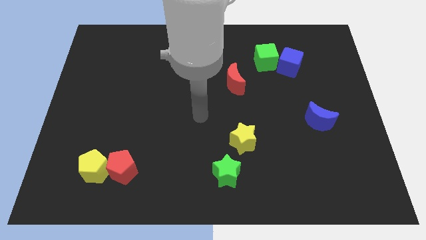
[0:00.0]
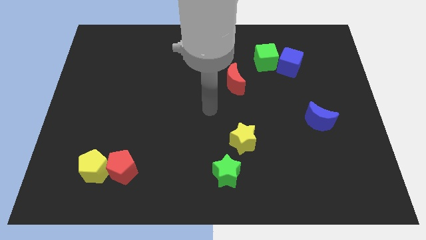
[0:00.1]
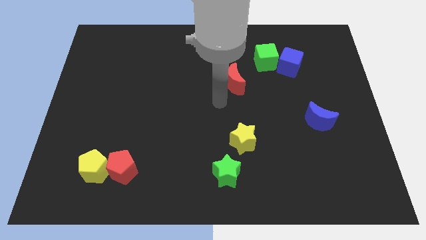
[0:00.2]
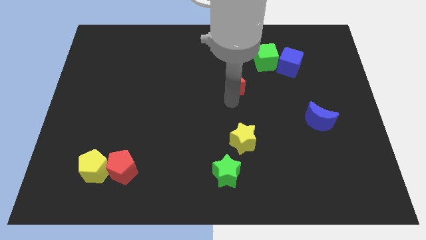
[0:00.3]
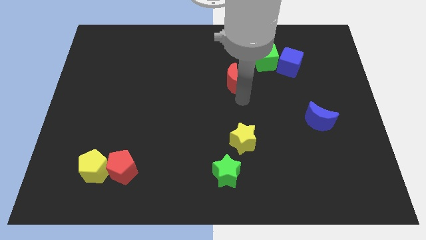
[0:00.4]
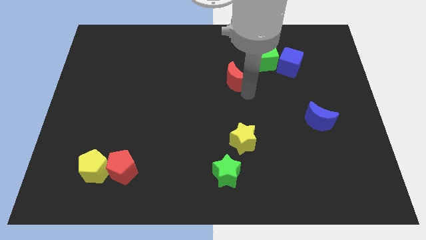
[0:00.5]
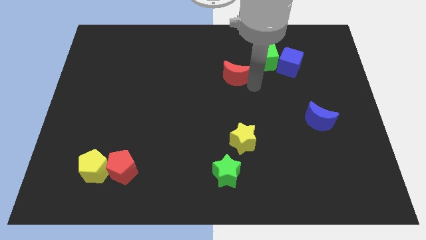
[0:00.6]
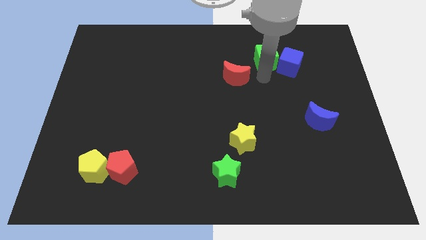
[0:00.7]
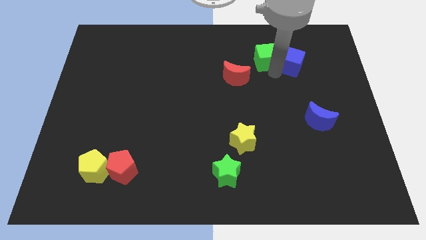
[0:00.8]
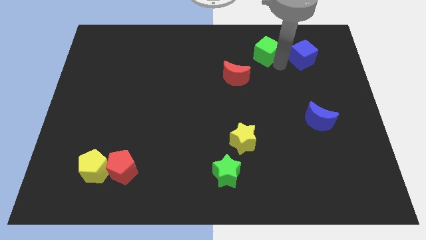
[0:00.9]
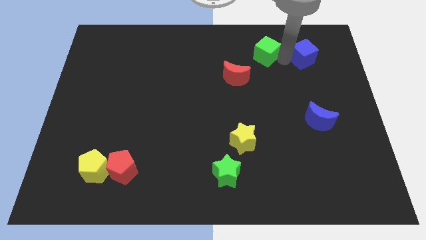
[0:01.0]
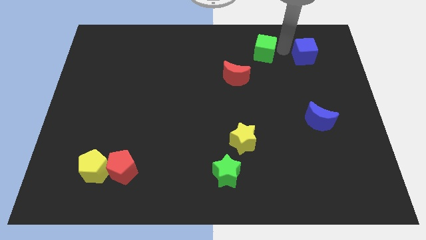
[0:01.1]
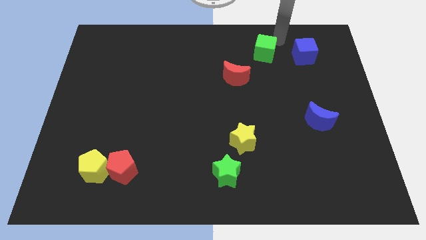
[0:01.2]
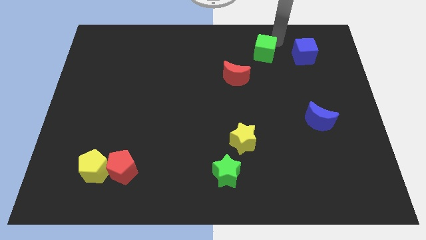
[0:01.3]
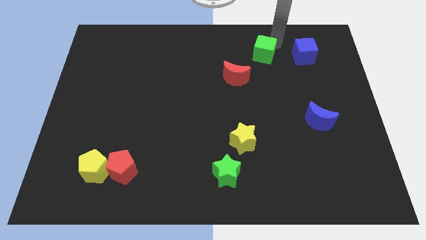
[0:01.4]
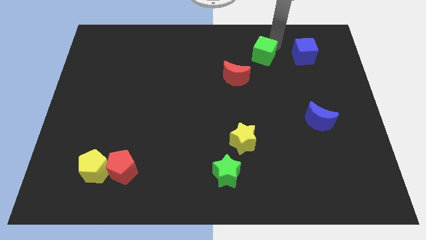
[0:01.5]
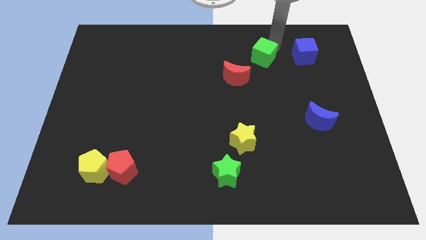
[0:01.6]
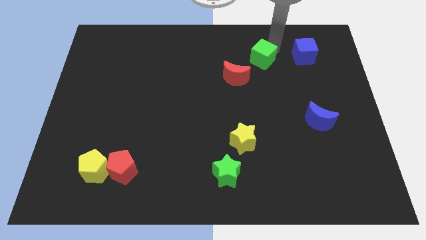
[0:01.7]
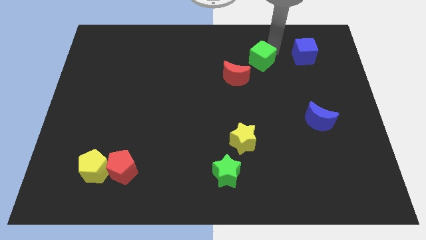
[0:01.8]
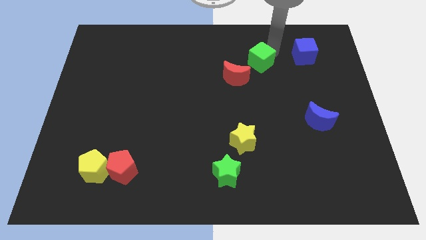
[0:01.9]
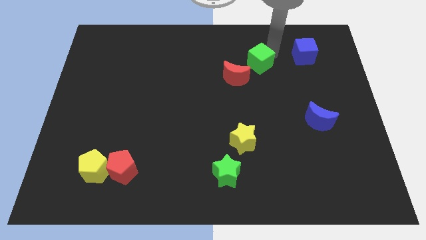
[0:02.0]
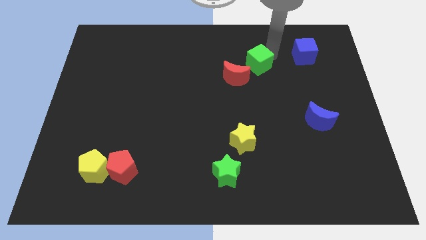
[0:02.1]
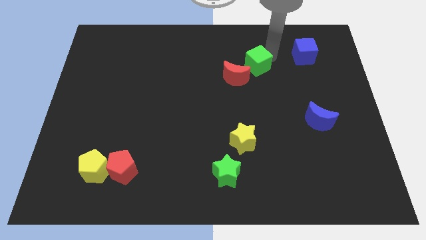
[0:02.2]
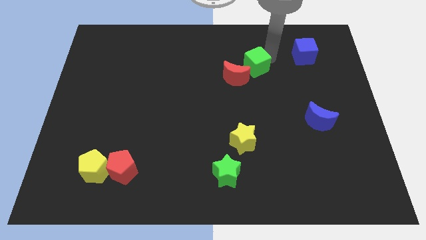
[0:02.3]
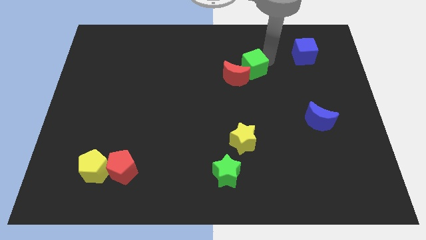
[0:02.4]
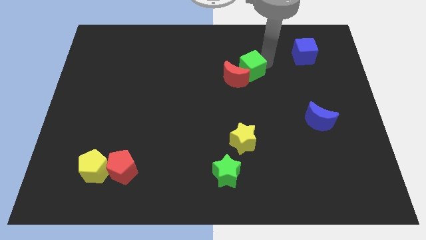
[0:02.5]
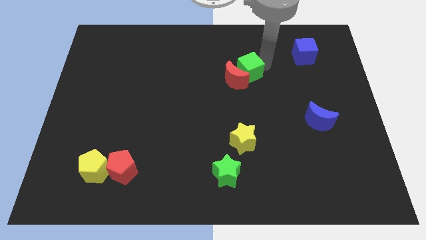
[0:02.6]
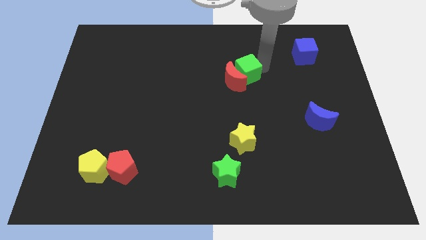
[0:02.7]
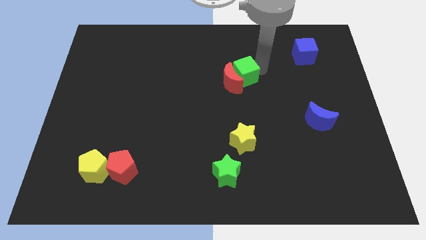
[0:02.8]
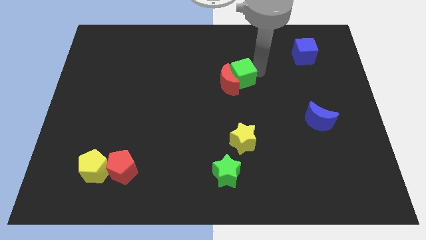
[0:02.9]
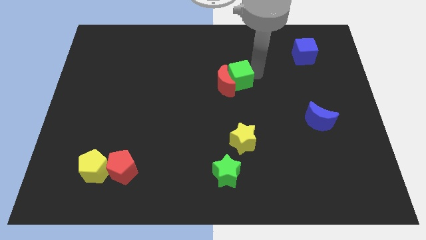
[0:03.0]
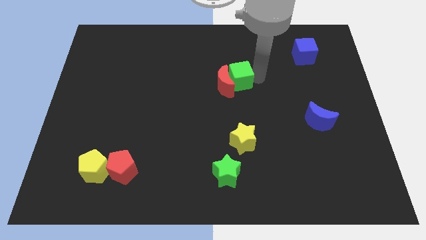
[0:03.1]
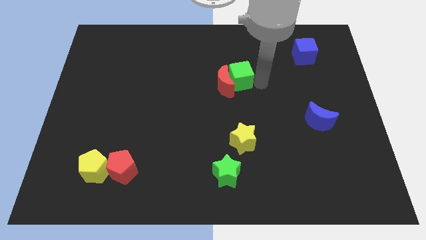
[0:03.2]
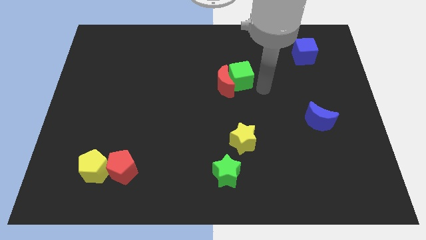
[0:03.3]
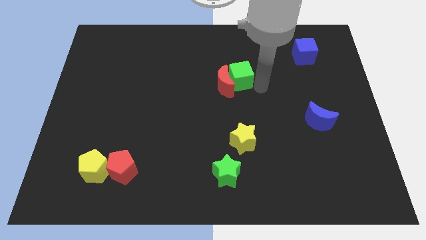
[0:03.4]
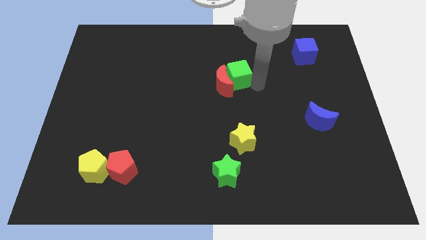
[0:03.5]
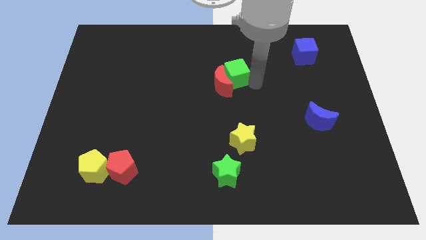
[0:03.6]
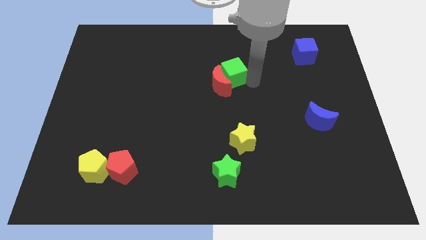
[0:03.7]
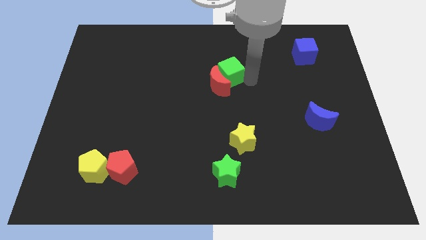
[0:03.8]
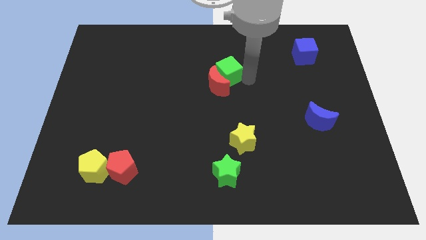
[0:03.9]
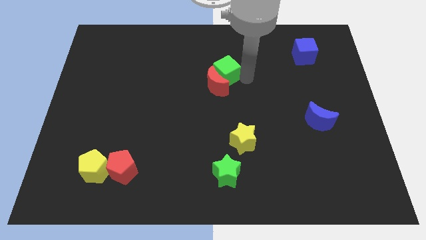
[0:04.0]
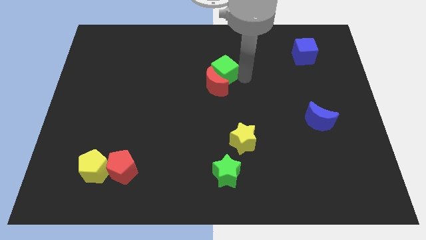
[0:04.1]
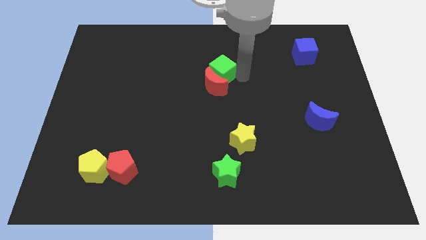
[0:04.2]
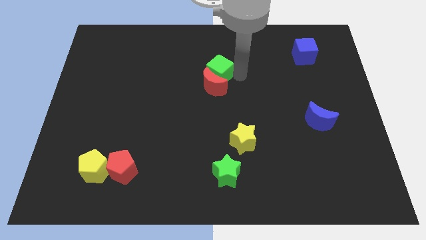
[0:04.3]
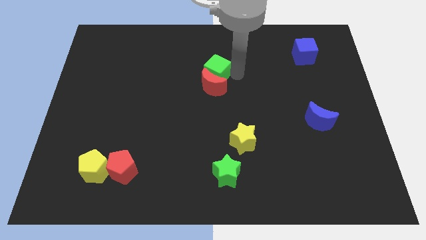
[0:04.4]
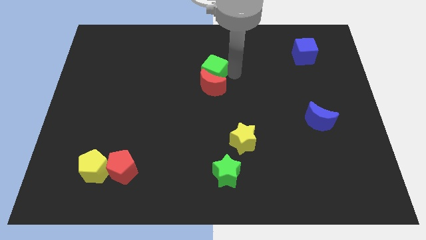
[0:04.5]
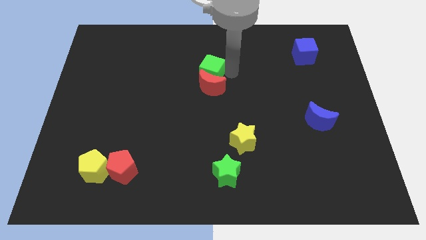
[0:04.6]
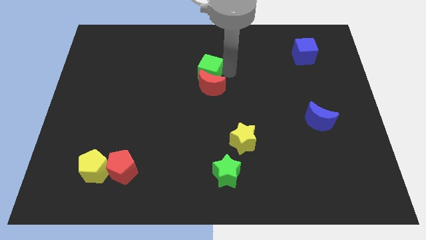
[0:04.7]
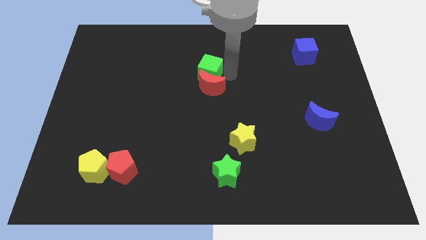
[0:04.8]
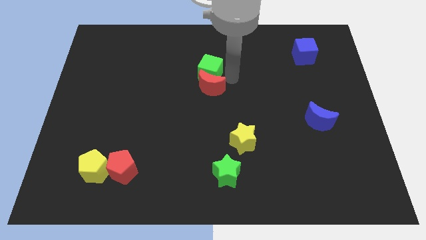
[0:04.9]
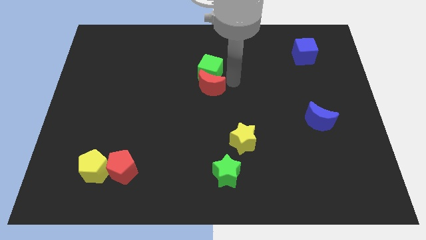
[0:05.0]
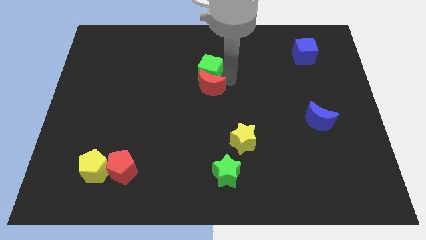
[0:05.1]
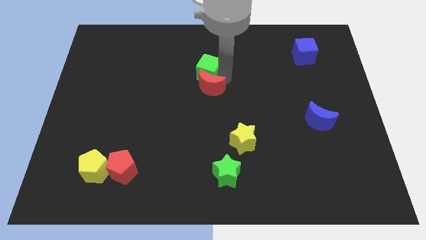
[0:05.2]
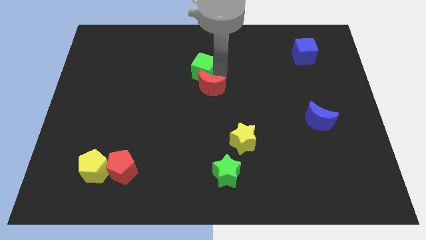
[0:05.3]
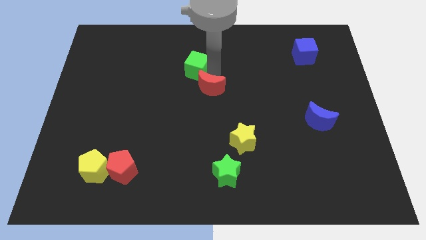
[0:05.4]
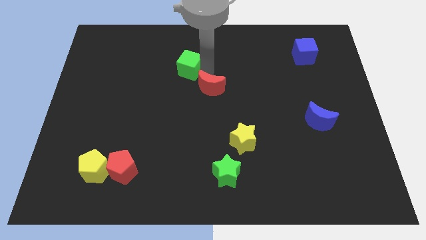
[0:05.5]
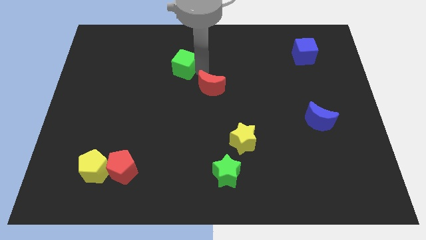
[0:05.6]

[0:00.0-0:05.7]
move the green cube to the left

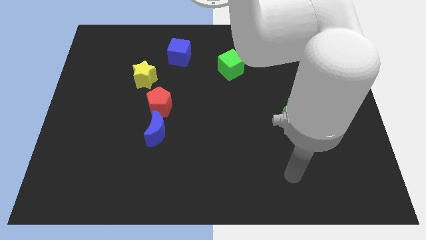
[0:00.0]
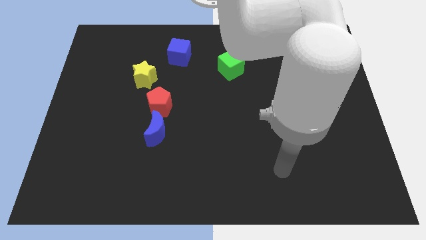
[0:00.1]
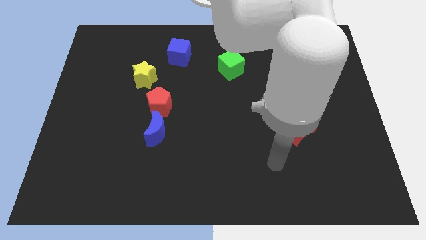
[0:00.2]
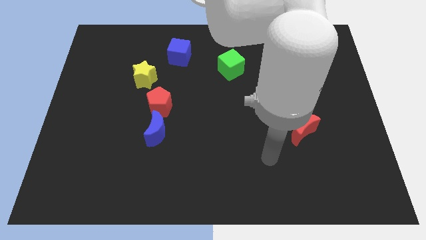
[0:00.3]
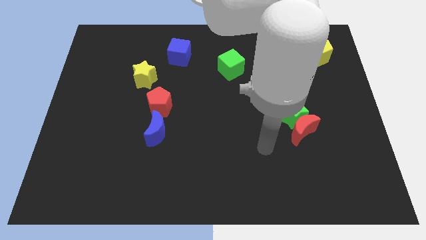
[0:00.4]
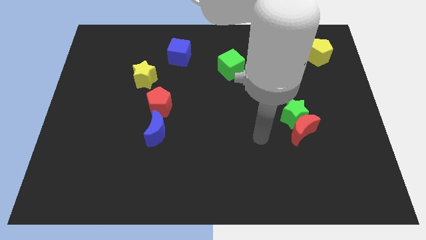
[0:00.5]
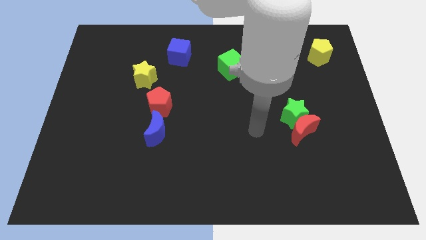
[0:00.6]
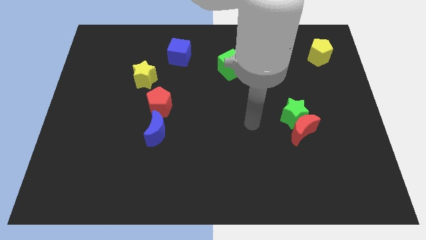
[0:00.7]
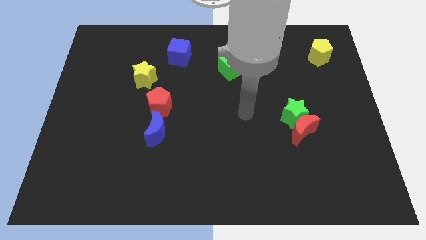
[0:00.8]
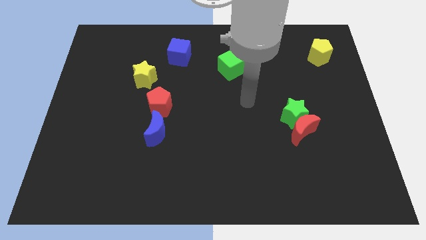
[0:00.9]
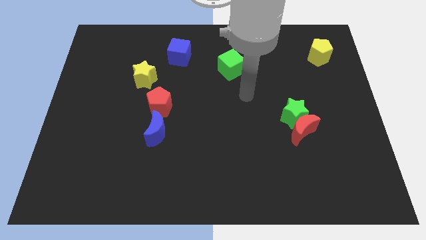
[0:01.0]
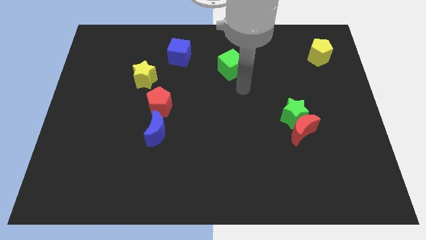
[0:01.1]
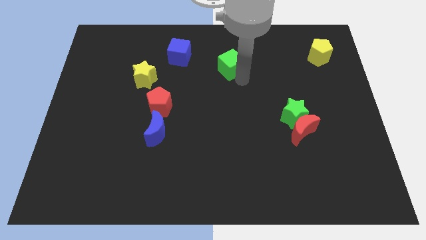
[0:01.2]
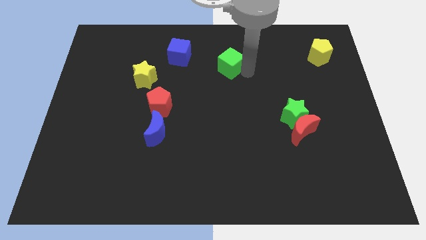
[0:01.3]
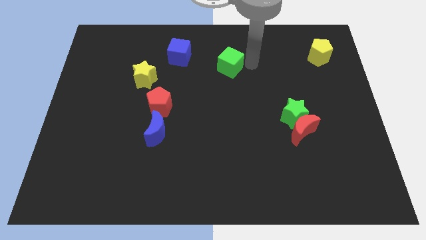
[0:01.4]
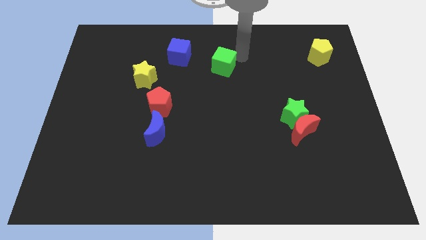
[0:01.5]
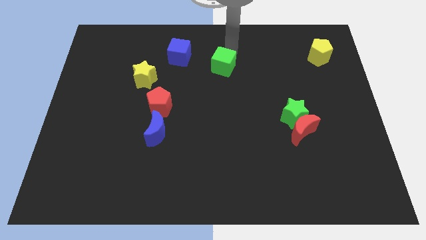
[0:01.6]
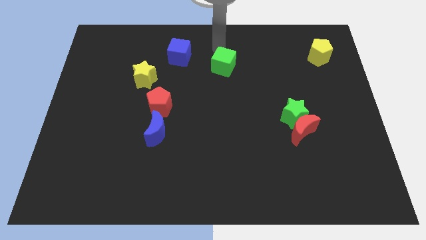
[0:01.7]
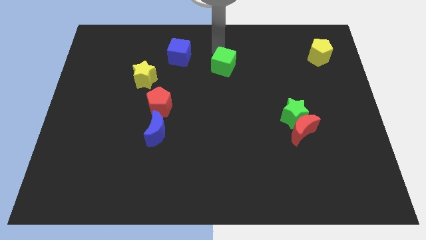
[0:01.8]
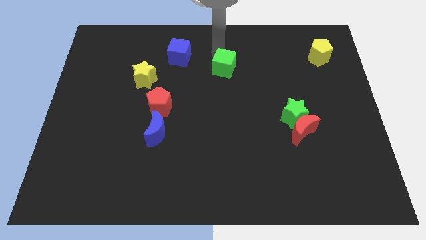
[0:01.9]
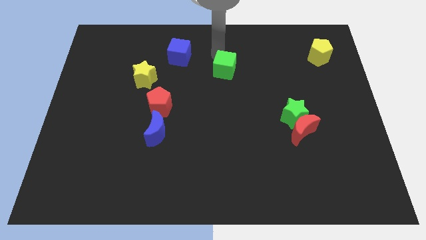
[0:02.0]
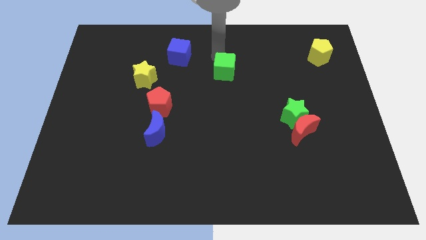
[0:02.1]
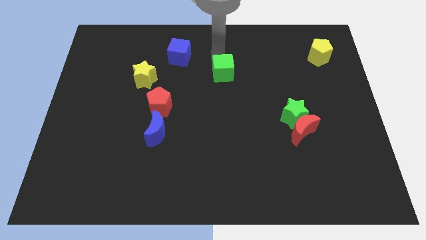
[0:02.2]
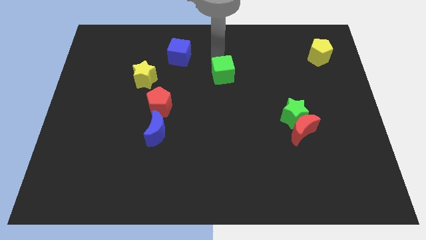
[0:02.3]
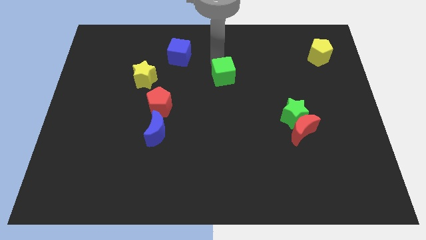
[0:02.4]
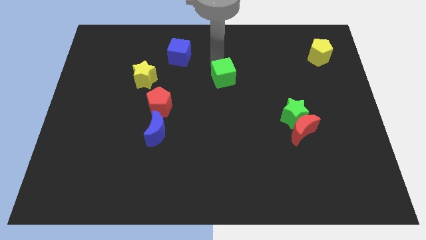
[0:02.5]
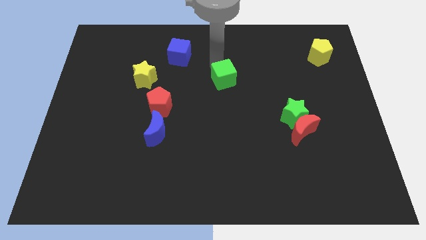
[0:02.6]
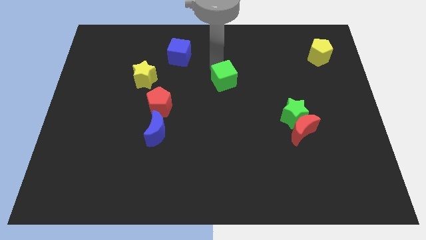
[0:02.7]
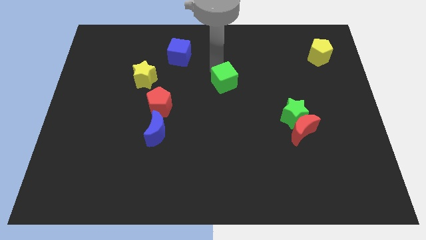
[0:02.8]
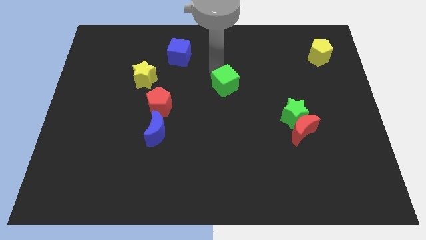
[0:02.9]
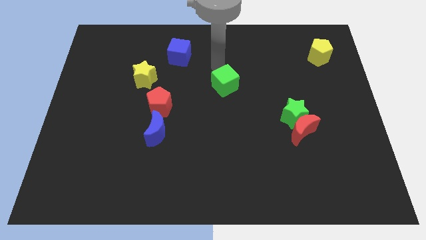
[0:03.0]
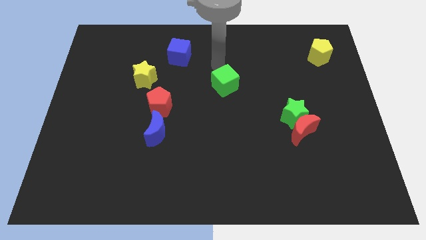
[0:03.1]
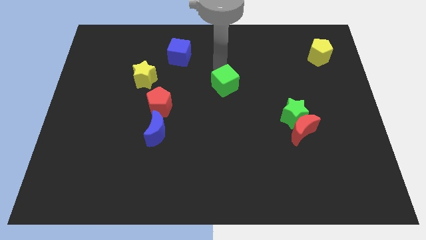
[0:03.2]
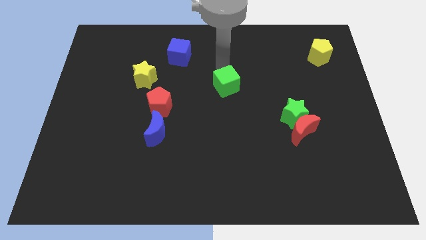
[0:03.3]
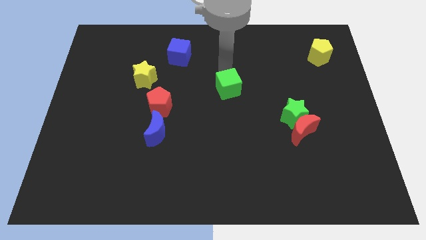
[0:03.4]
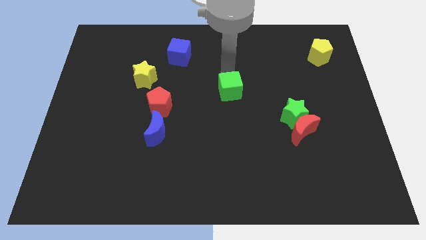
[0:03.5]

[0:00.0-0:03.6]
slightly push the green cube downwards
